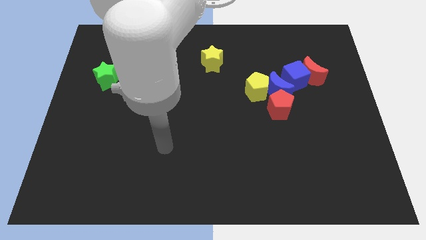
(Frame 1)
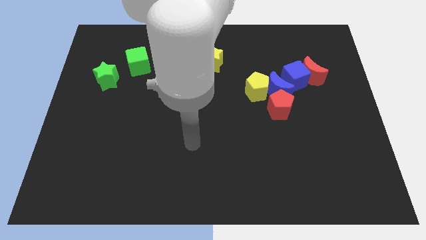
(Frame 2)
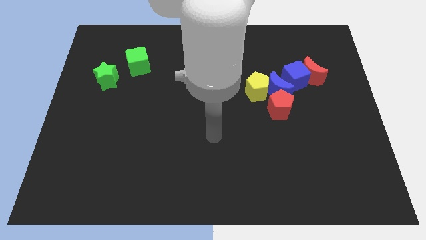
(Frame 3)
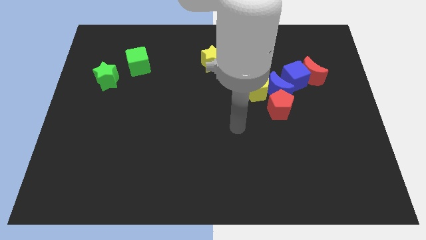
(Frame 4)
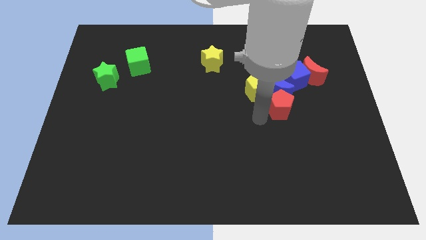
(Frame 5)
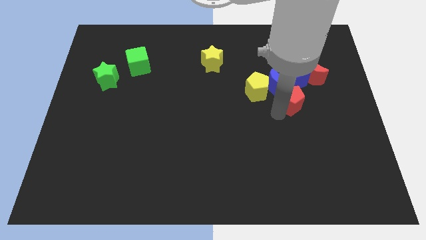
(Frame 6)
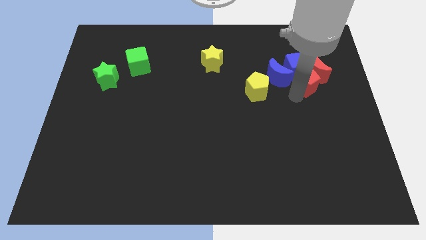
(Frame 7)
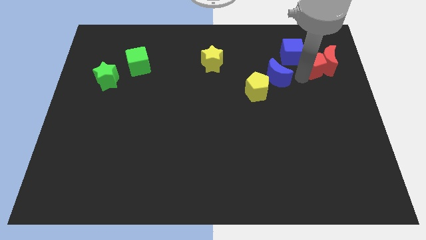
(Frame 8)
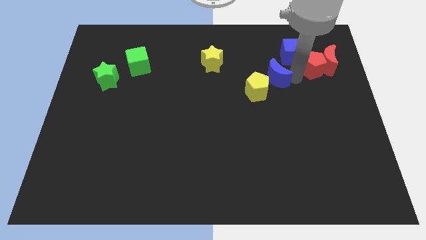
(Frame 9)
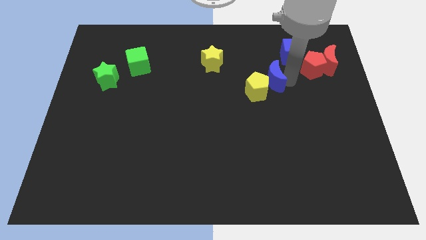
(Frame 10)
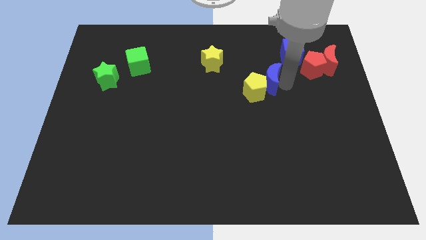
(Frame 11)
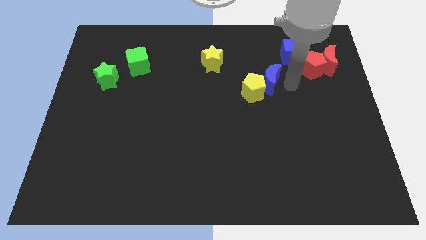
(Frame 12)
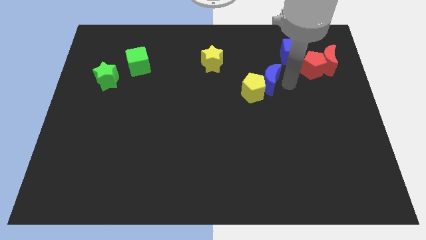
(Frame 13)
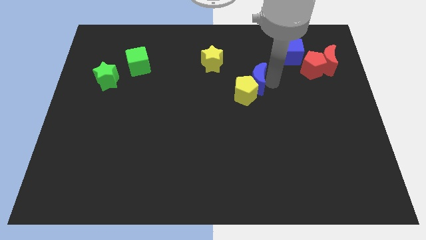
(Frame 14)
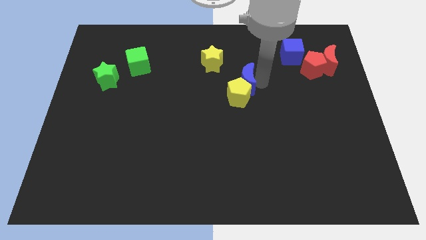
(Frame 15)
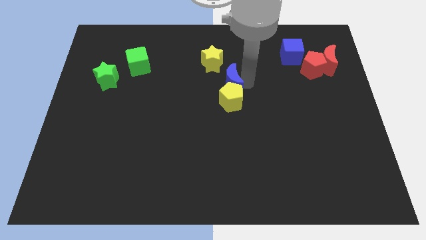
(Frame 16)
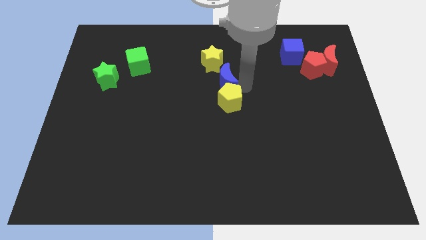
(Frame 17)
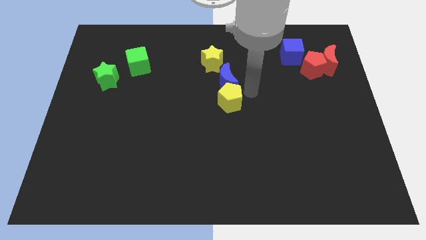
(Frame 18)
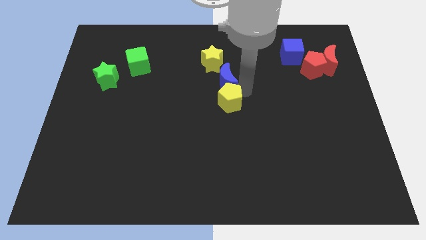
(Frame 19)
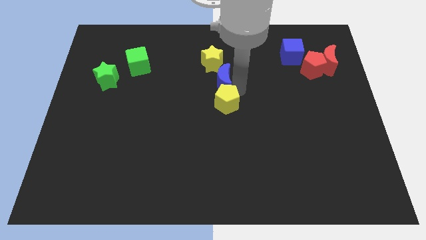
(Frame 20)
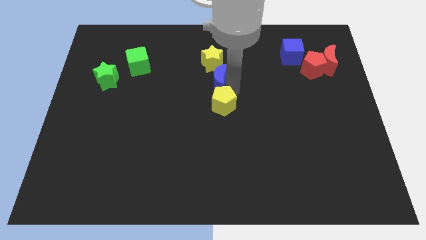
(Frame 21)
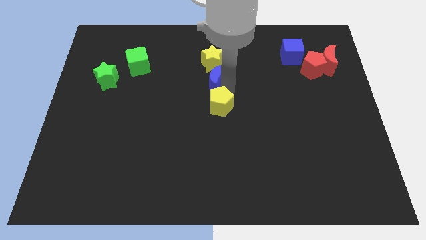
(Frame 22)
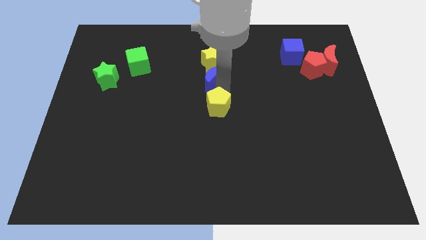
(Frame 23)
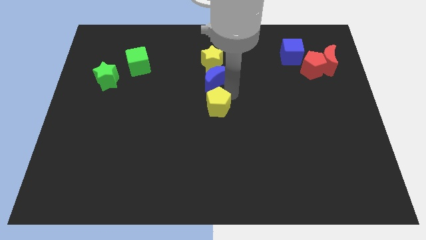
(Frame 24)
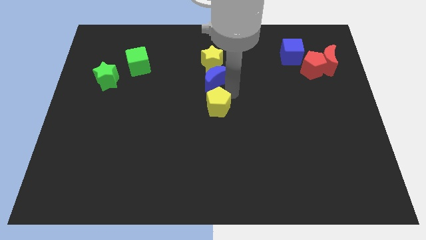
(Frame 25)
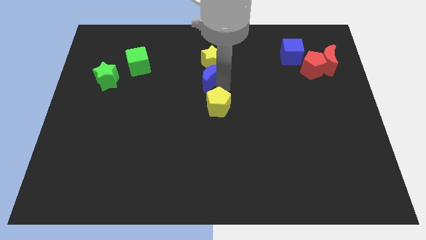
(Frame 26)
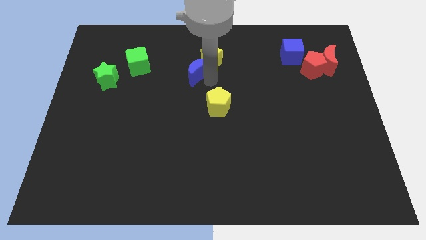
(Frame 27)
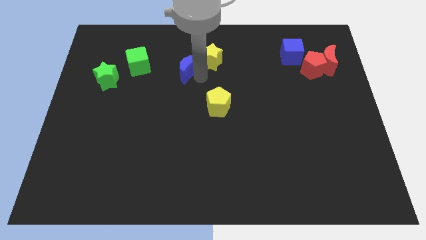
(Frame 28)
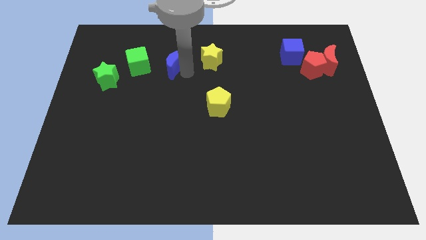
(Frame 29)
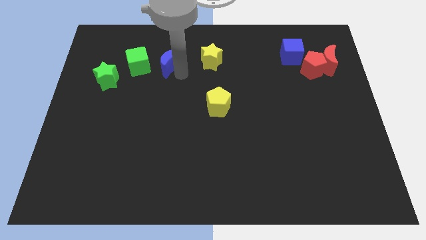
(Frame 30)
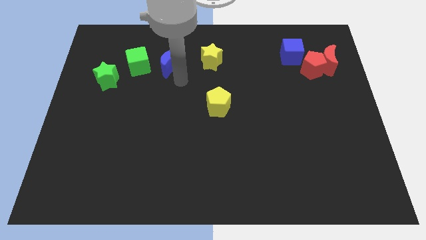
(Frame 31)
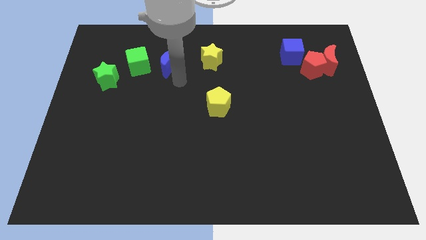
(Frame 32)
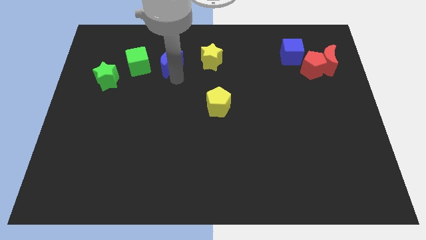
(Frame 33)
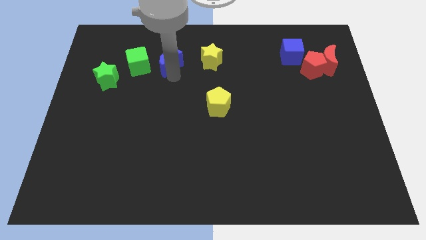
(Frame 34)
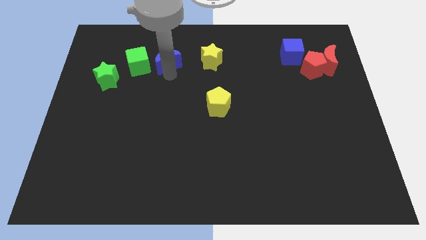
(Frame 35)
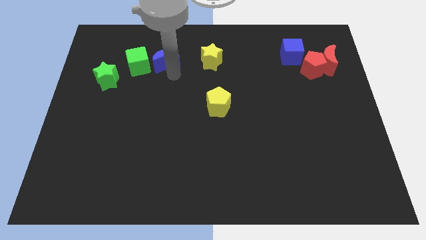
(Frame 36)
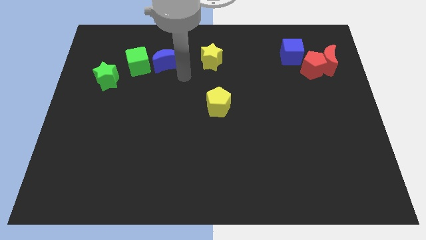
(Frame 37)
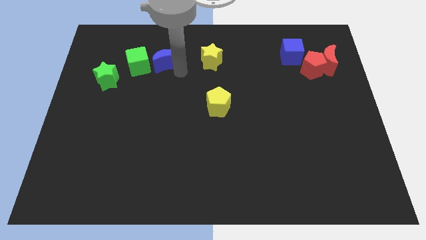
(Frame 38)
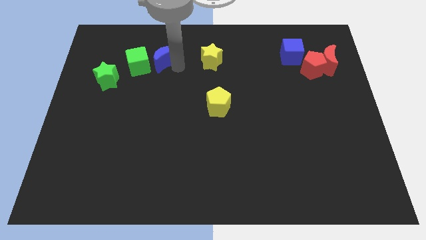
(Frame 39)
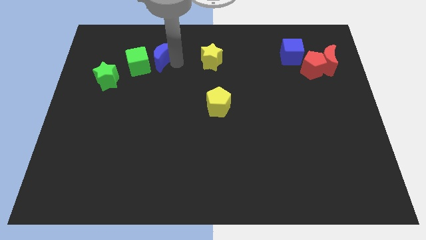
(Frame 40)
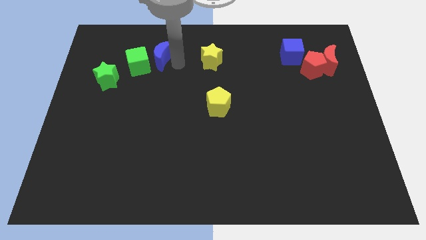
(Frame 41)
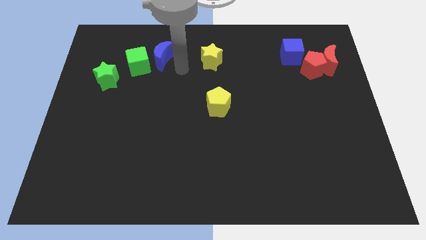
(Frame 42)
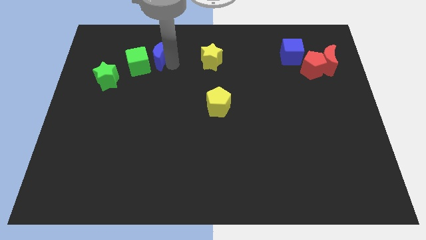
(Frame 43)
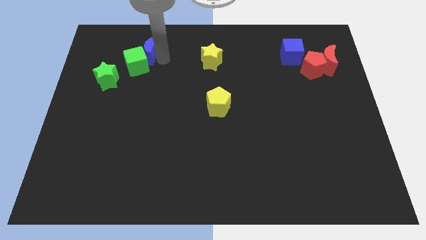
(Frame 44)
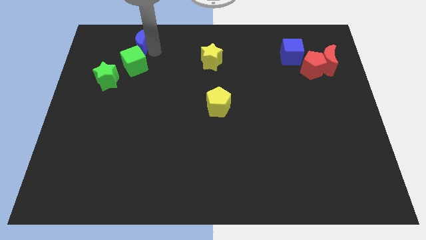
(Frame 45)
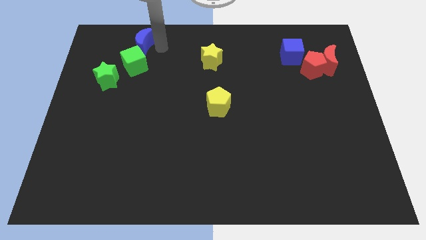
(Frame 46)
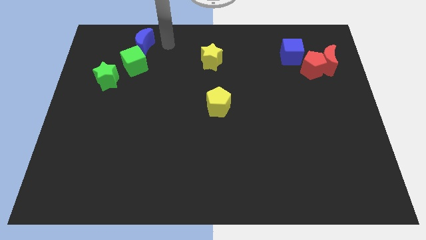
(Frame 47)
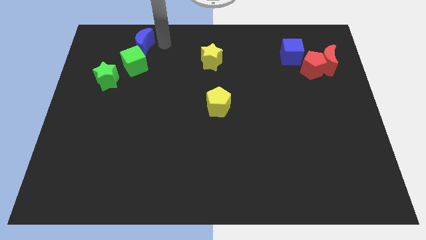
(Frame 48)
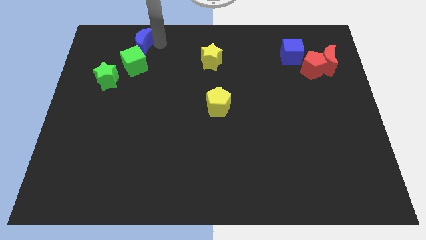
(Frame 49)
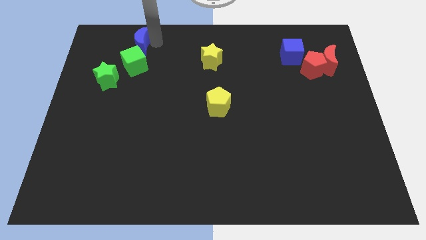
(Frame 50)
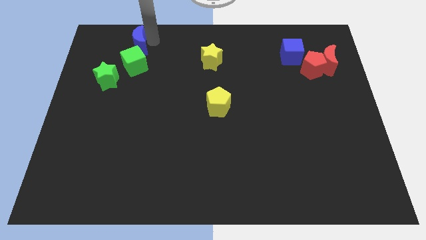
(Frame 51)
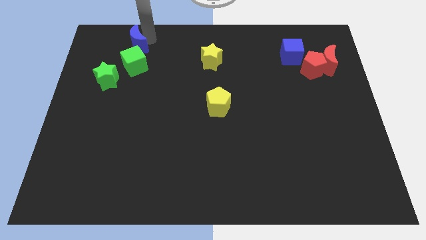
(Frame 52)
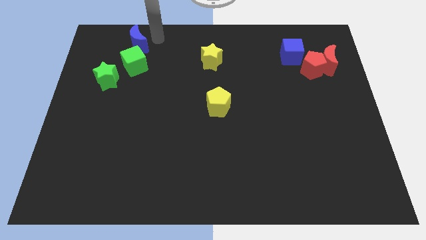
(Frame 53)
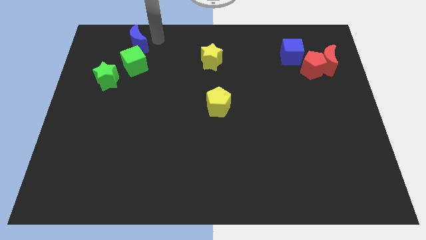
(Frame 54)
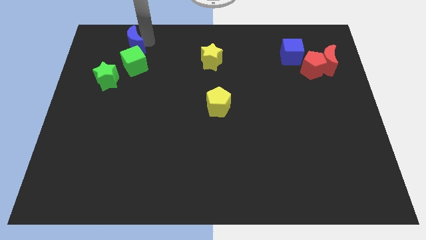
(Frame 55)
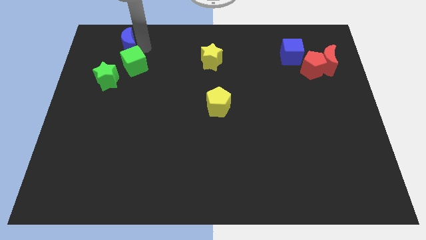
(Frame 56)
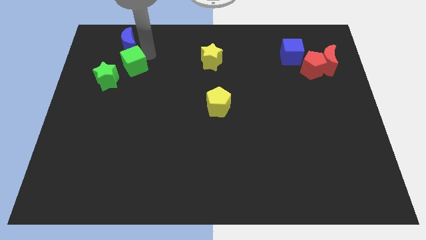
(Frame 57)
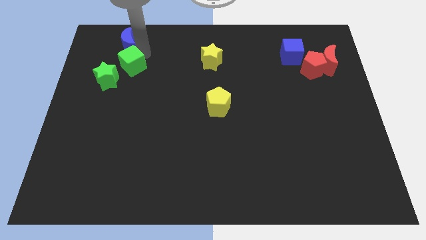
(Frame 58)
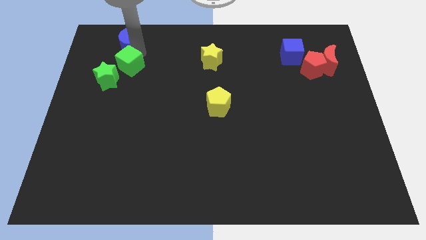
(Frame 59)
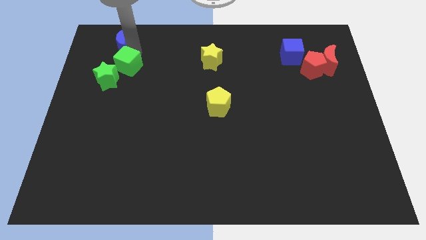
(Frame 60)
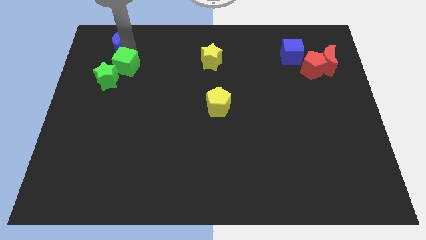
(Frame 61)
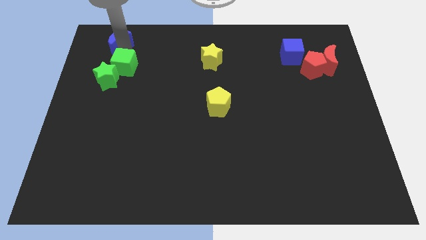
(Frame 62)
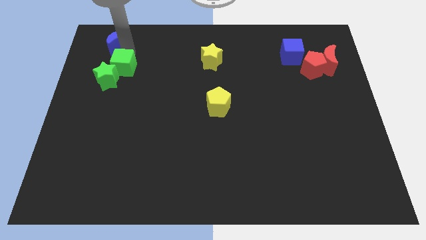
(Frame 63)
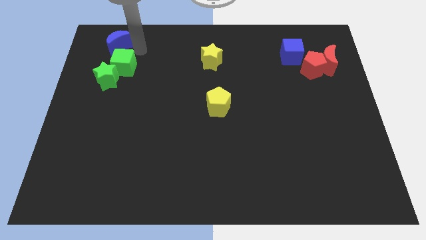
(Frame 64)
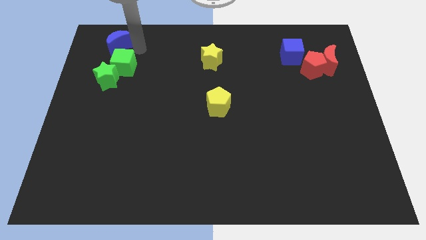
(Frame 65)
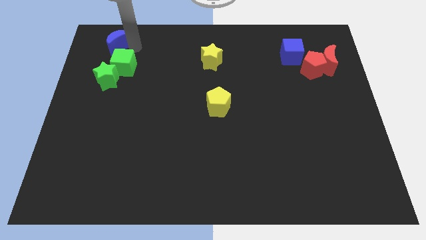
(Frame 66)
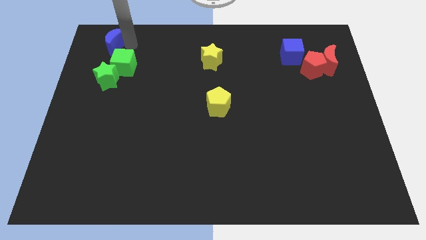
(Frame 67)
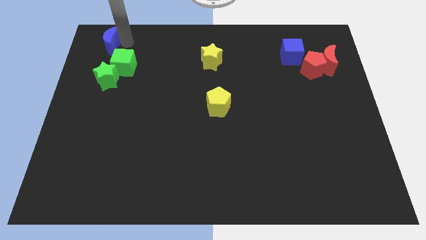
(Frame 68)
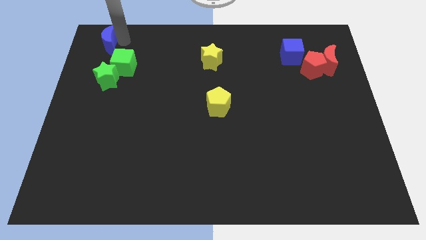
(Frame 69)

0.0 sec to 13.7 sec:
slide the blue moon to the top left corner
